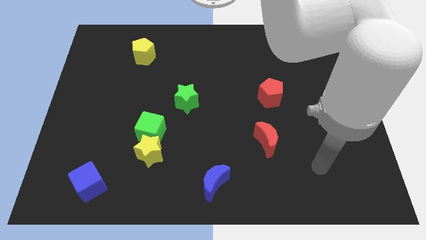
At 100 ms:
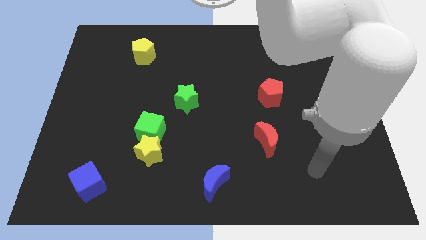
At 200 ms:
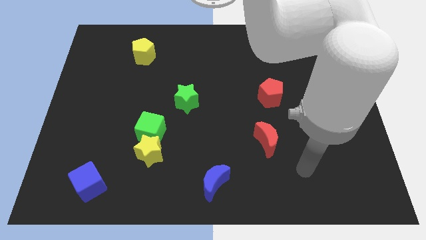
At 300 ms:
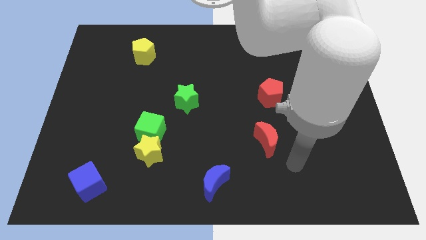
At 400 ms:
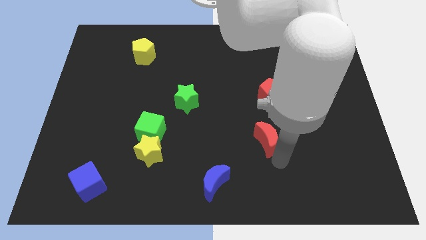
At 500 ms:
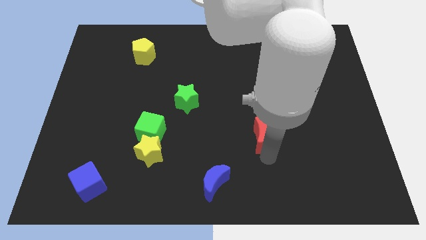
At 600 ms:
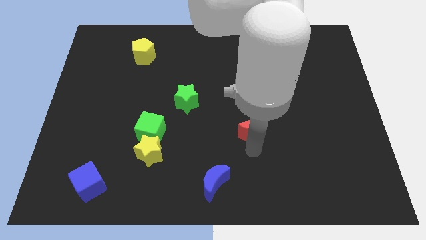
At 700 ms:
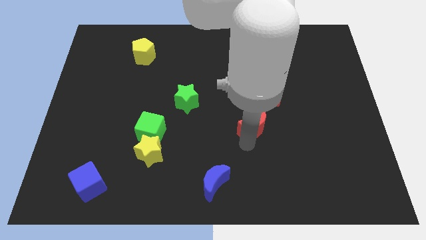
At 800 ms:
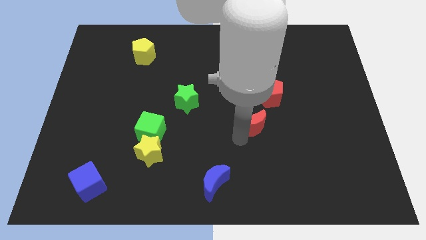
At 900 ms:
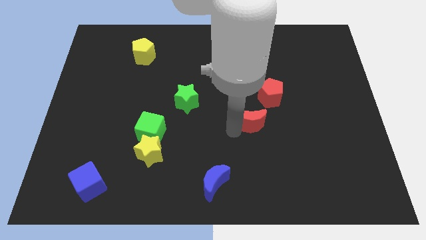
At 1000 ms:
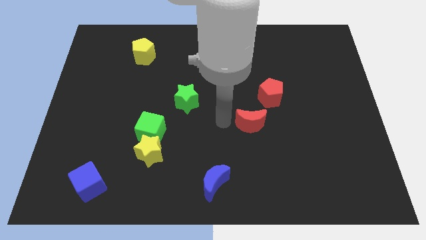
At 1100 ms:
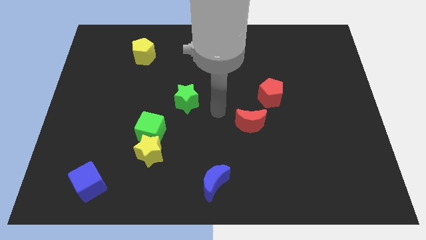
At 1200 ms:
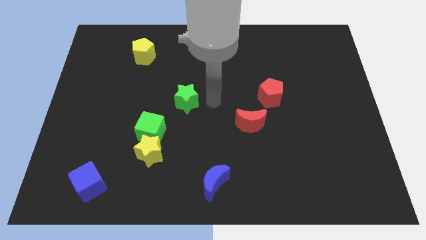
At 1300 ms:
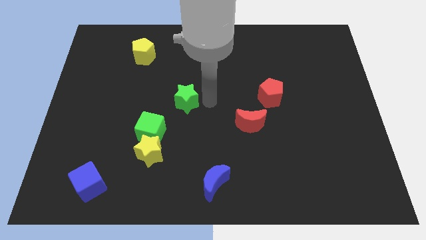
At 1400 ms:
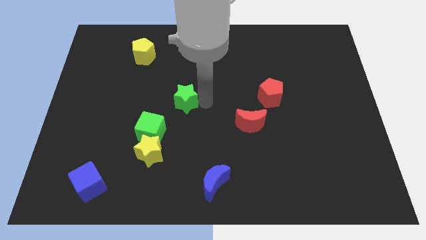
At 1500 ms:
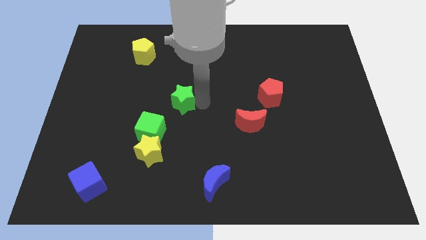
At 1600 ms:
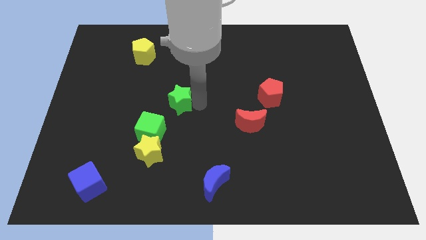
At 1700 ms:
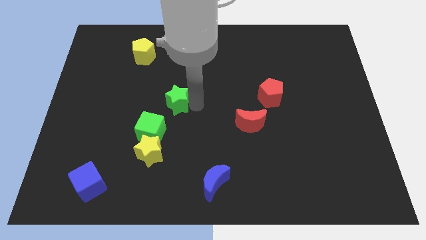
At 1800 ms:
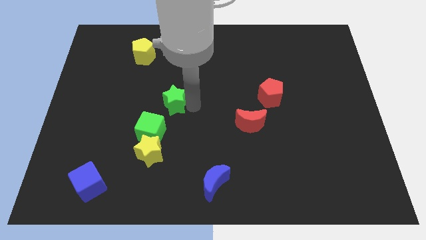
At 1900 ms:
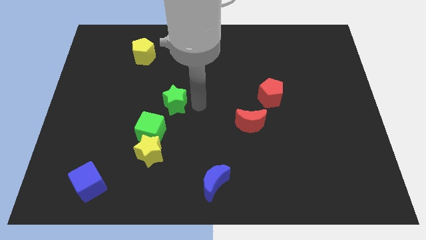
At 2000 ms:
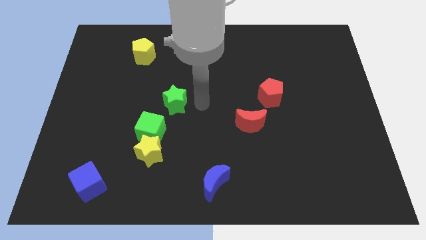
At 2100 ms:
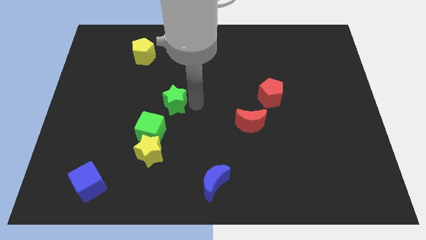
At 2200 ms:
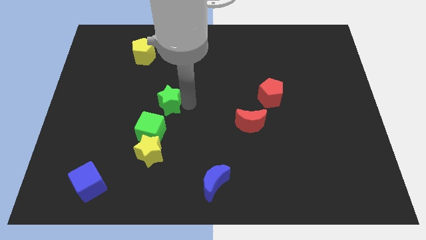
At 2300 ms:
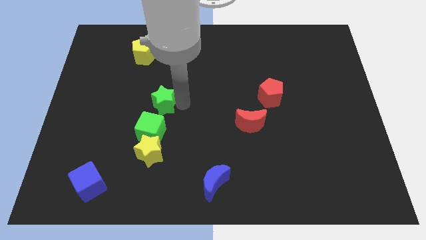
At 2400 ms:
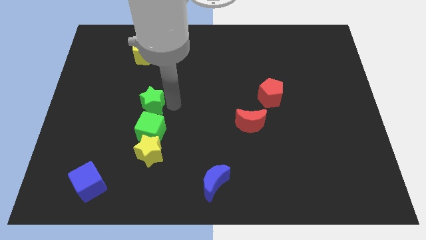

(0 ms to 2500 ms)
push the green star slightly to the left

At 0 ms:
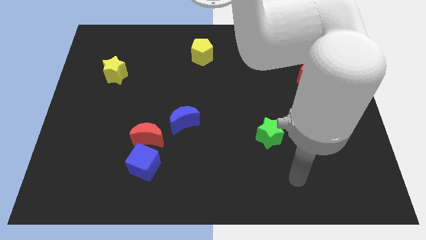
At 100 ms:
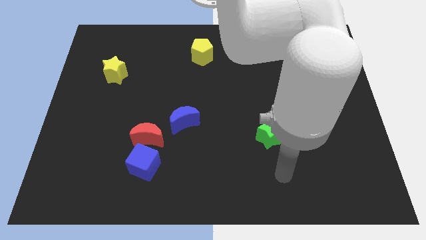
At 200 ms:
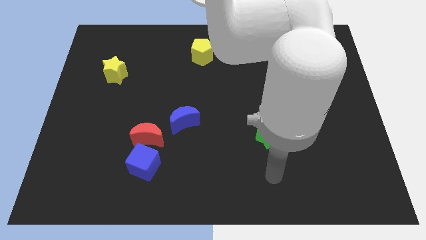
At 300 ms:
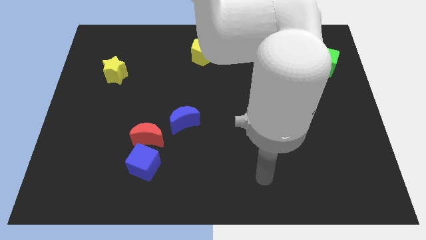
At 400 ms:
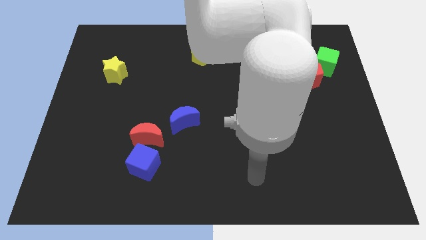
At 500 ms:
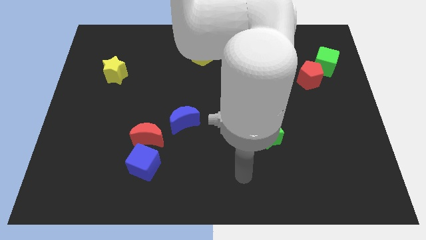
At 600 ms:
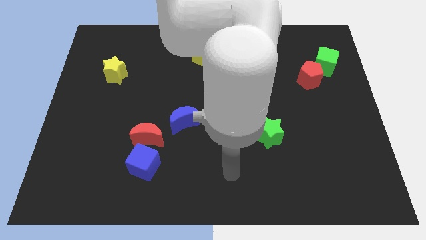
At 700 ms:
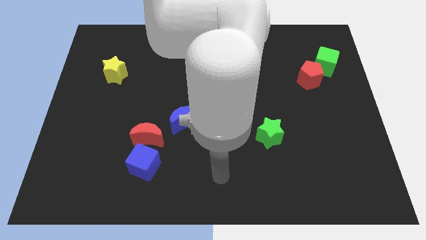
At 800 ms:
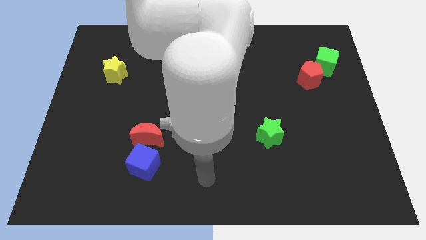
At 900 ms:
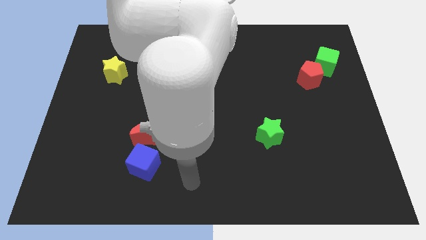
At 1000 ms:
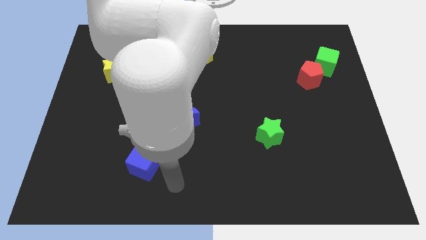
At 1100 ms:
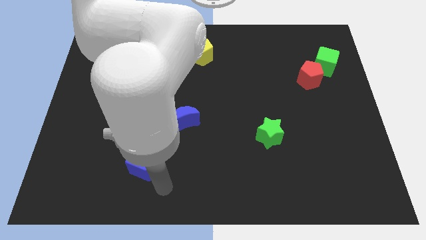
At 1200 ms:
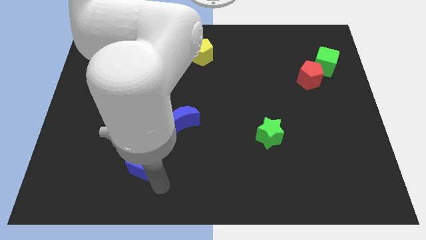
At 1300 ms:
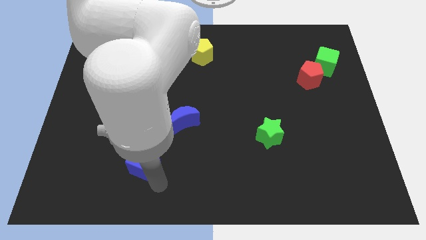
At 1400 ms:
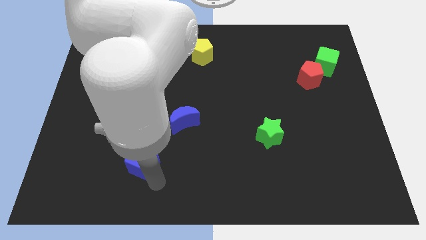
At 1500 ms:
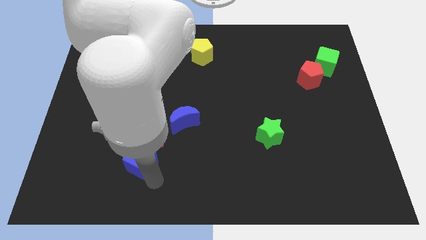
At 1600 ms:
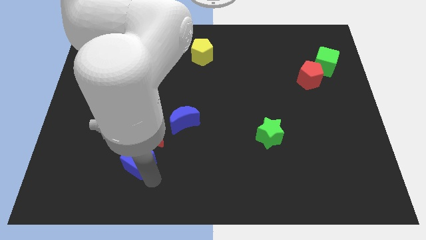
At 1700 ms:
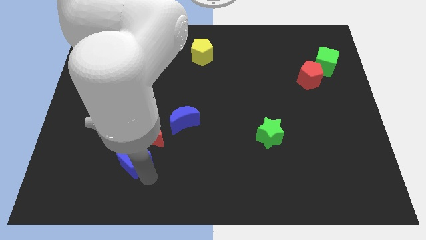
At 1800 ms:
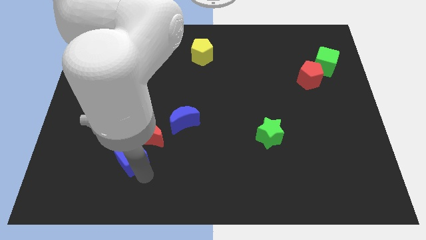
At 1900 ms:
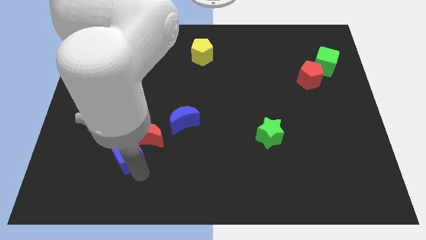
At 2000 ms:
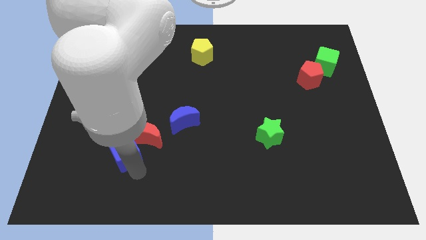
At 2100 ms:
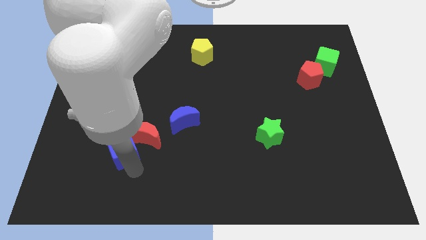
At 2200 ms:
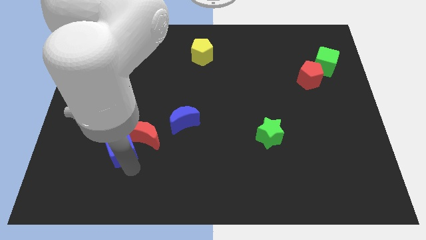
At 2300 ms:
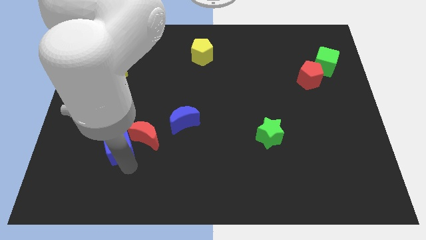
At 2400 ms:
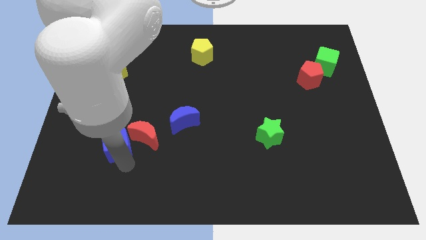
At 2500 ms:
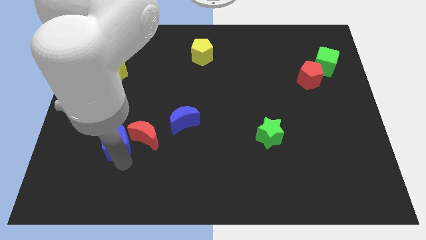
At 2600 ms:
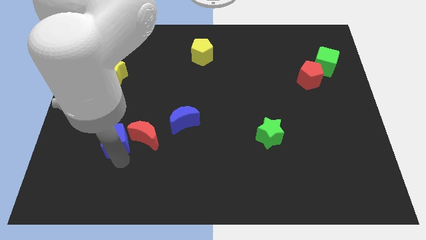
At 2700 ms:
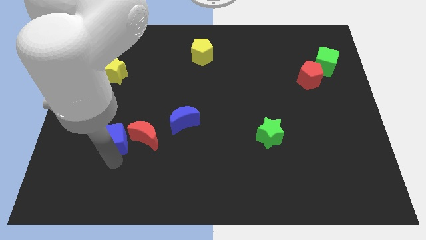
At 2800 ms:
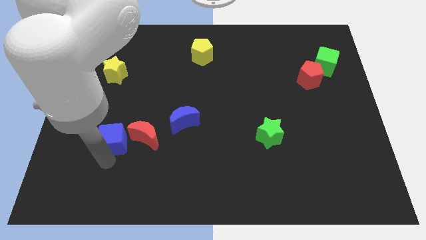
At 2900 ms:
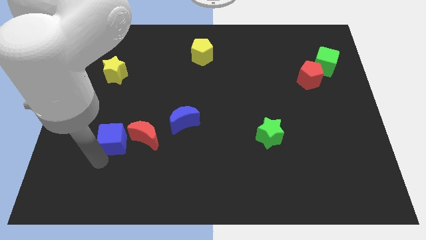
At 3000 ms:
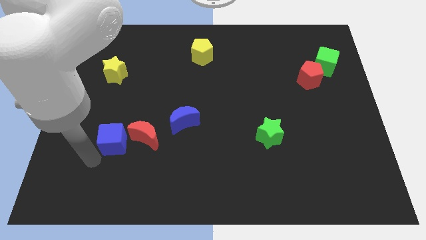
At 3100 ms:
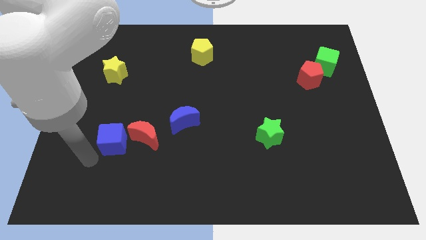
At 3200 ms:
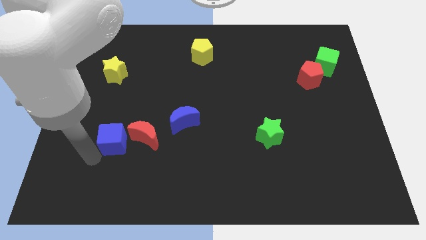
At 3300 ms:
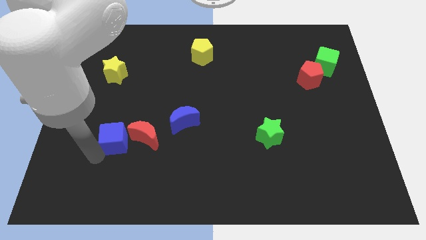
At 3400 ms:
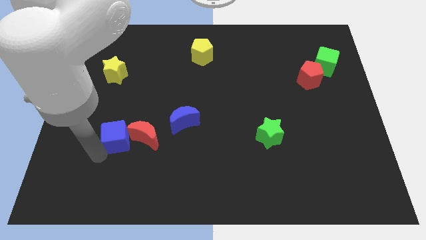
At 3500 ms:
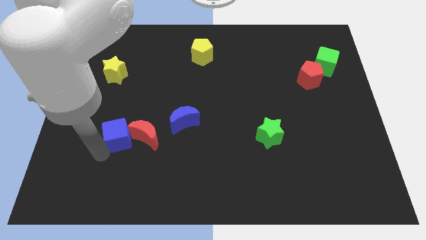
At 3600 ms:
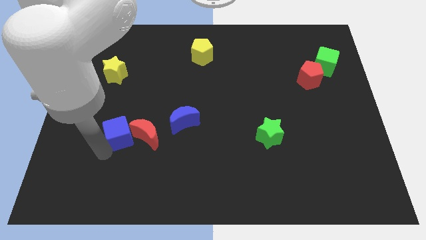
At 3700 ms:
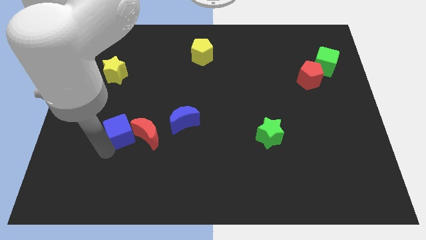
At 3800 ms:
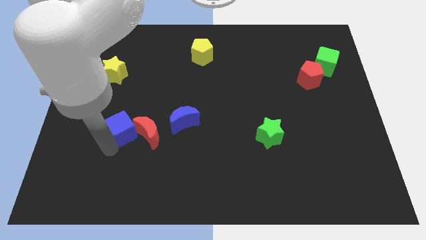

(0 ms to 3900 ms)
move the blue cube a bit upwards

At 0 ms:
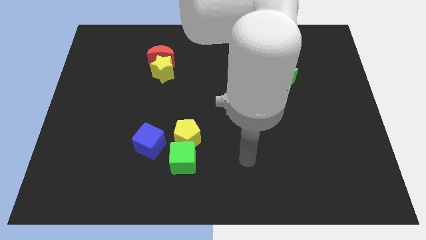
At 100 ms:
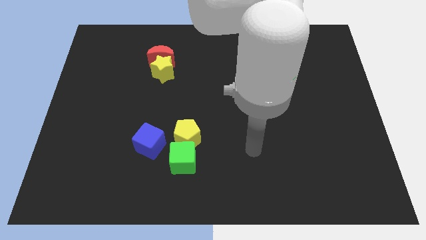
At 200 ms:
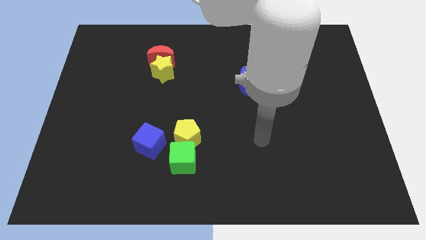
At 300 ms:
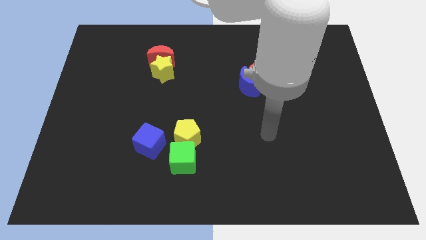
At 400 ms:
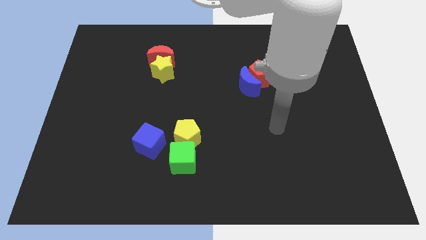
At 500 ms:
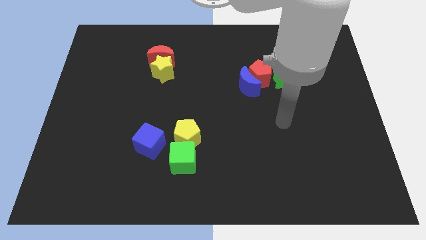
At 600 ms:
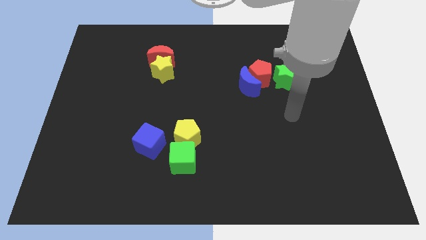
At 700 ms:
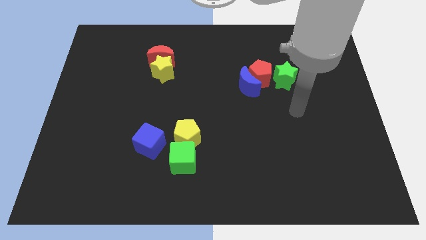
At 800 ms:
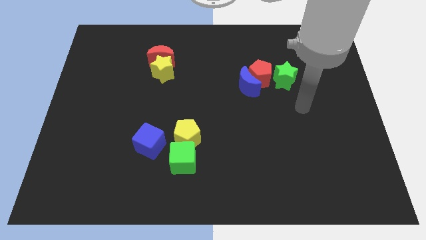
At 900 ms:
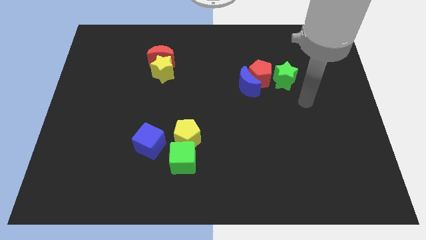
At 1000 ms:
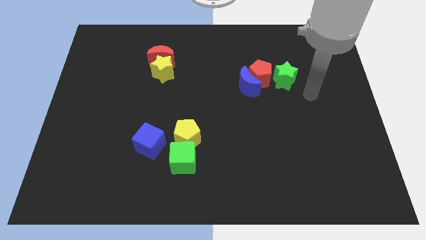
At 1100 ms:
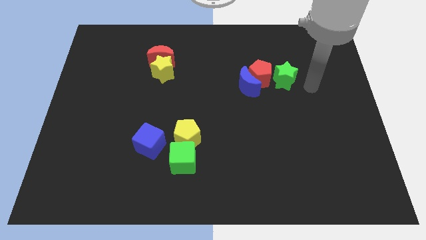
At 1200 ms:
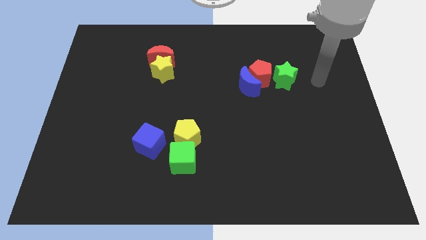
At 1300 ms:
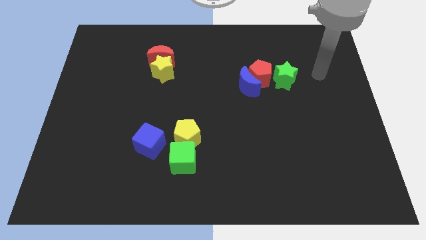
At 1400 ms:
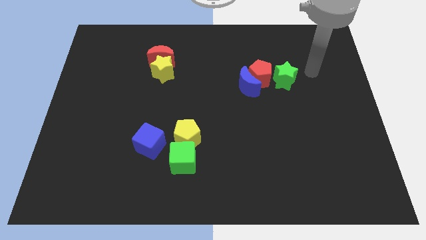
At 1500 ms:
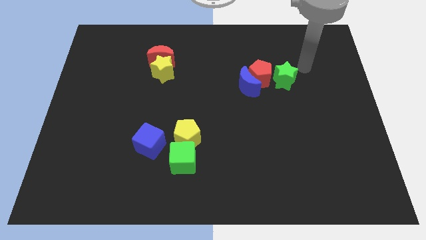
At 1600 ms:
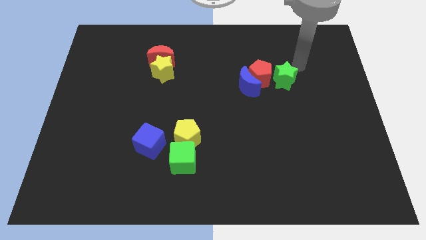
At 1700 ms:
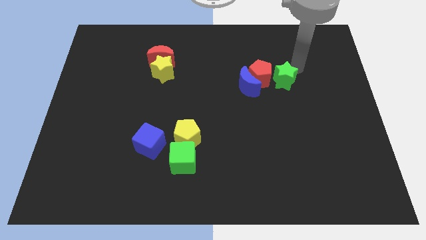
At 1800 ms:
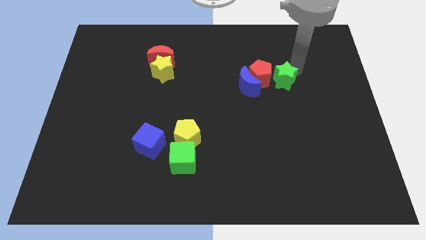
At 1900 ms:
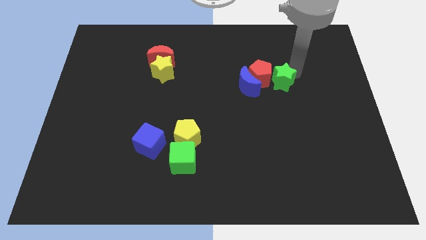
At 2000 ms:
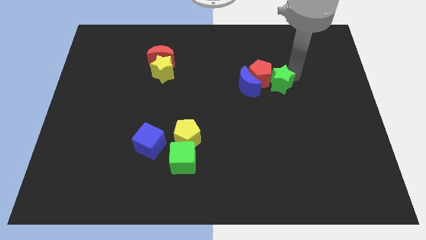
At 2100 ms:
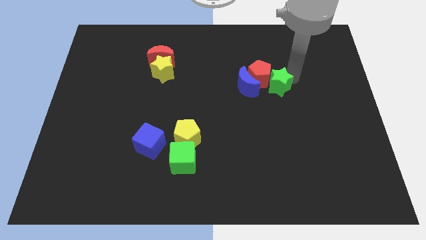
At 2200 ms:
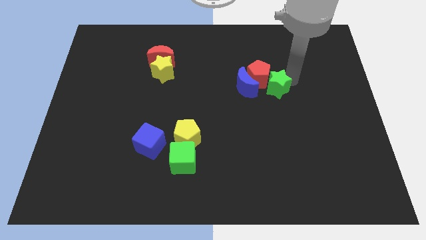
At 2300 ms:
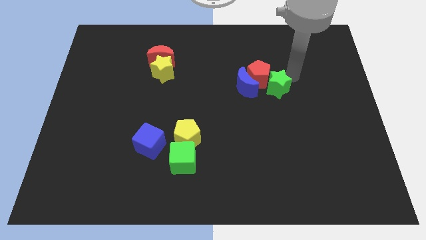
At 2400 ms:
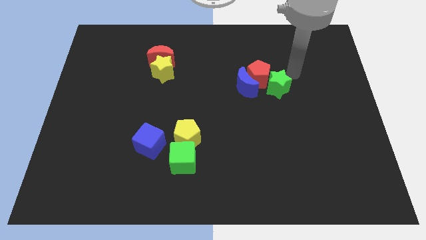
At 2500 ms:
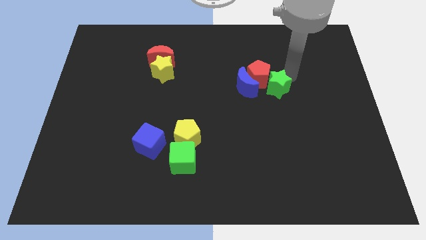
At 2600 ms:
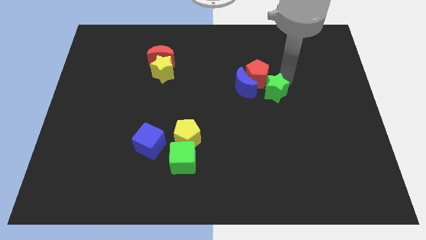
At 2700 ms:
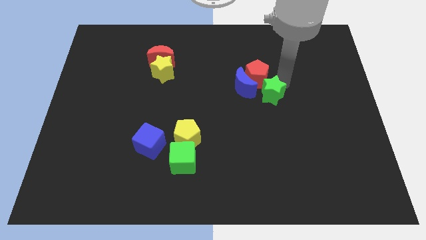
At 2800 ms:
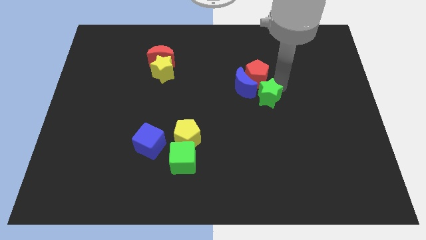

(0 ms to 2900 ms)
push the green star slightly downwards and to the left
